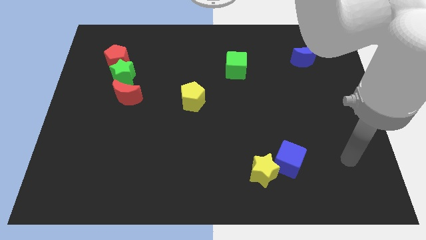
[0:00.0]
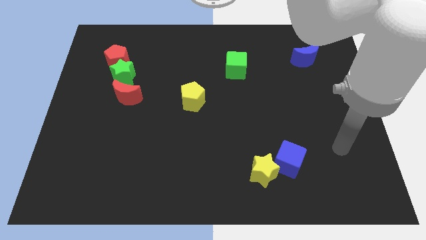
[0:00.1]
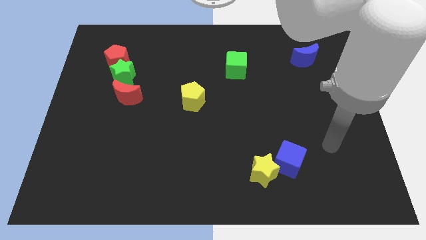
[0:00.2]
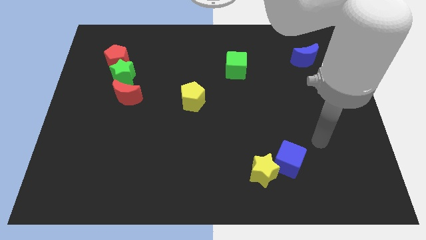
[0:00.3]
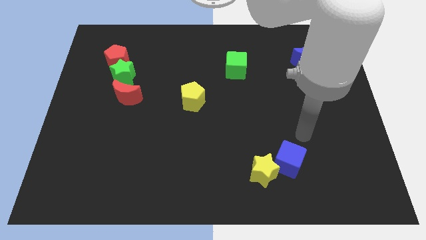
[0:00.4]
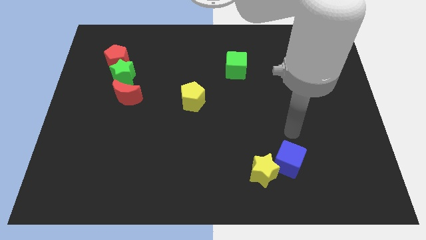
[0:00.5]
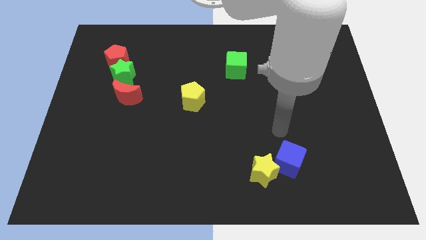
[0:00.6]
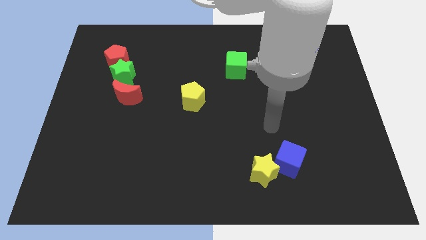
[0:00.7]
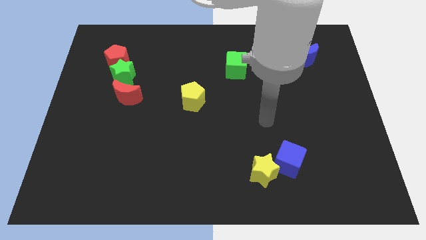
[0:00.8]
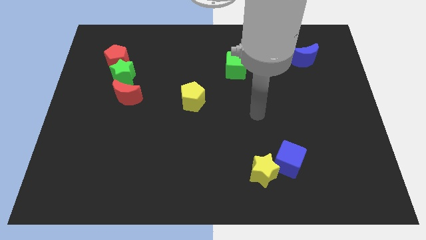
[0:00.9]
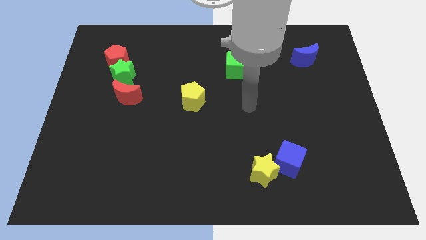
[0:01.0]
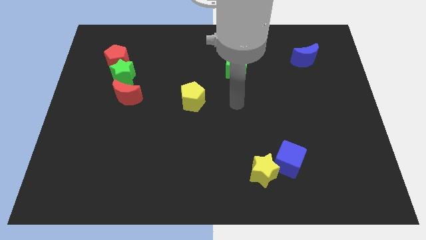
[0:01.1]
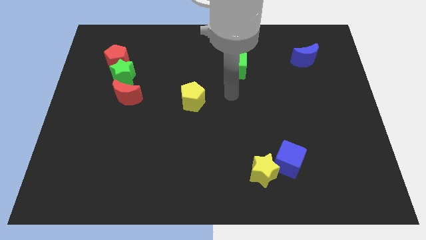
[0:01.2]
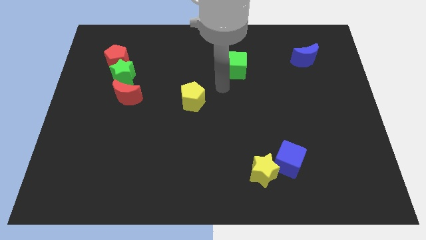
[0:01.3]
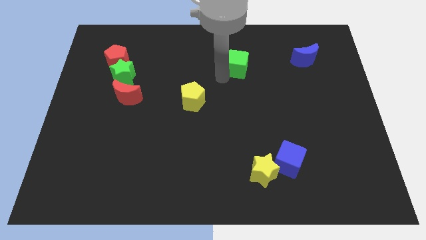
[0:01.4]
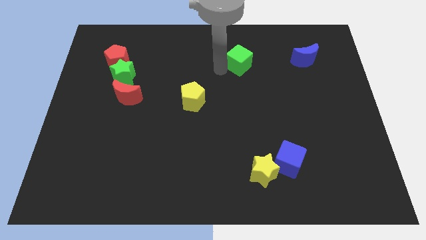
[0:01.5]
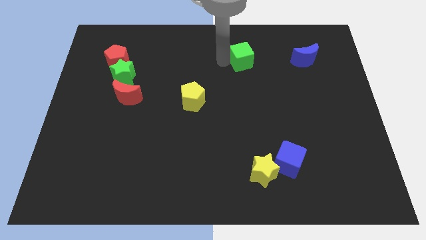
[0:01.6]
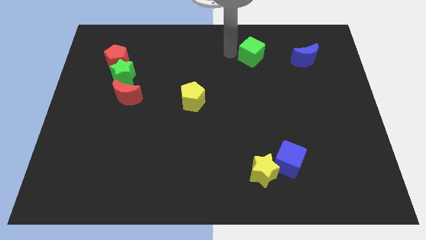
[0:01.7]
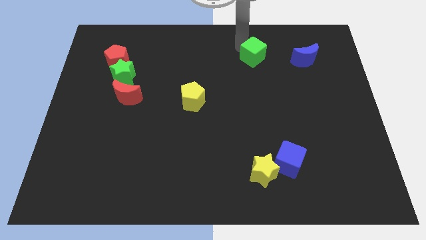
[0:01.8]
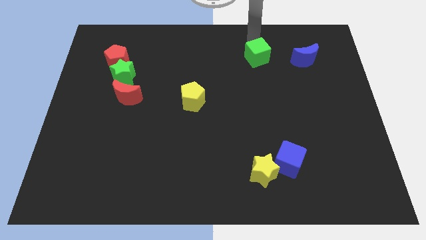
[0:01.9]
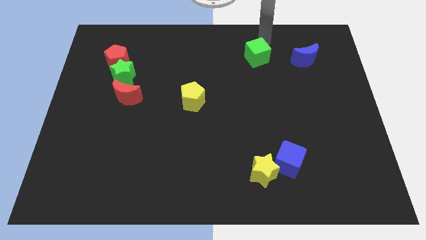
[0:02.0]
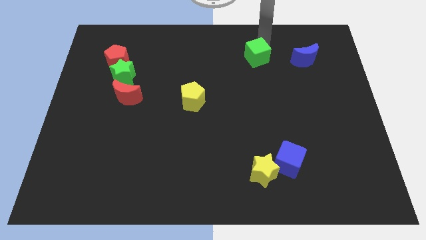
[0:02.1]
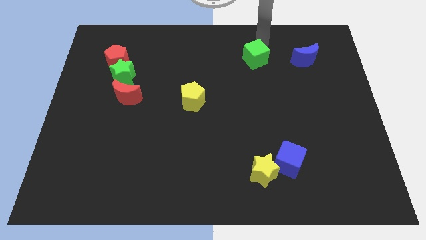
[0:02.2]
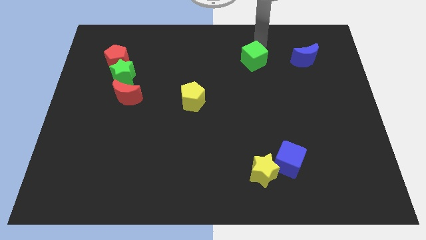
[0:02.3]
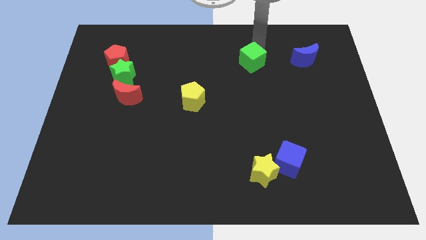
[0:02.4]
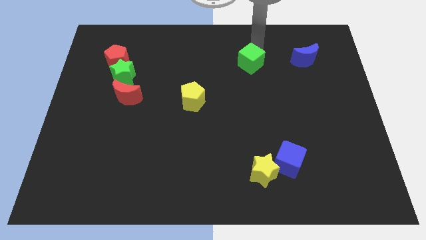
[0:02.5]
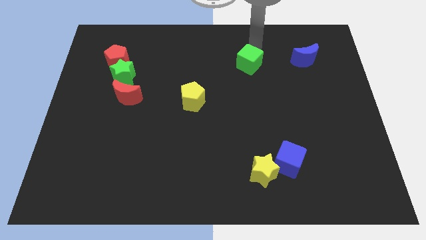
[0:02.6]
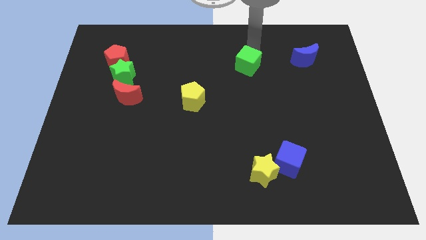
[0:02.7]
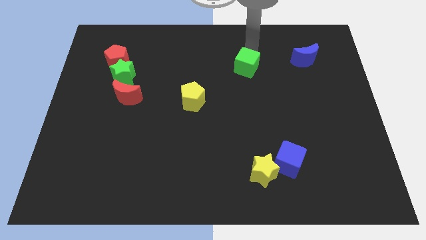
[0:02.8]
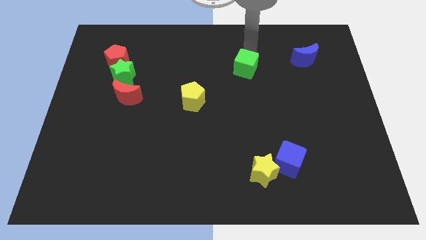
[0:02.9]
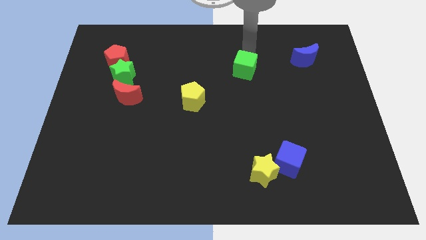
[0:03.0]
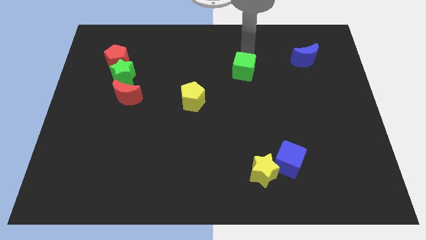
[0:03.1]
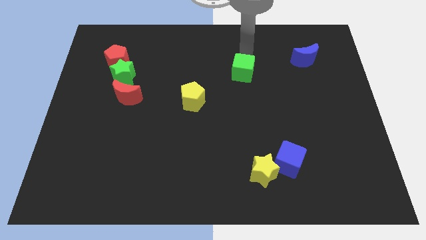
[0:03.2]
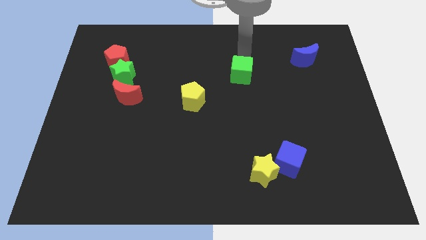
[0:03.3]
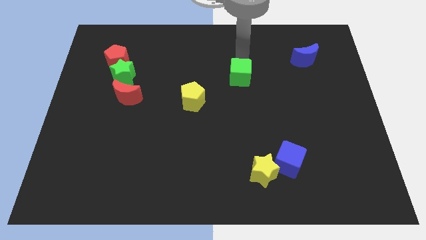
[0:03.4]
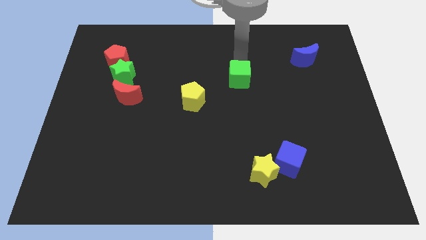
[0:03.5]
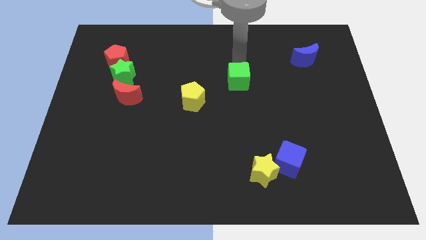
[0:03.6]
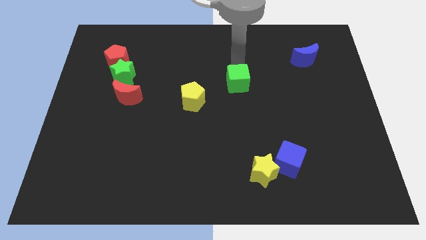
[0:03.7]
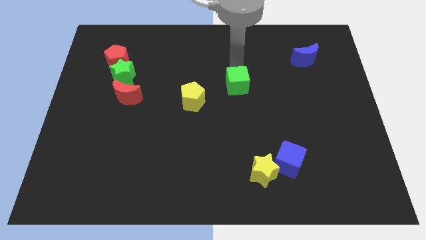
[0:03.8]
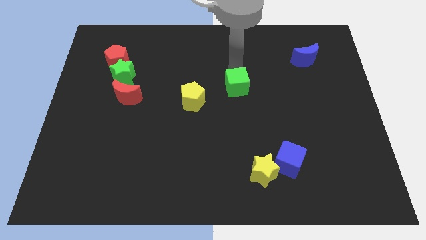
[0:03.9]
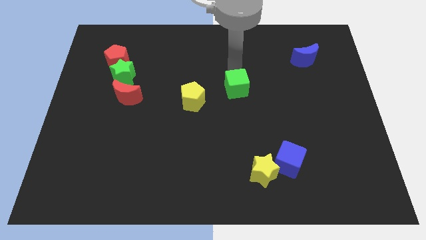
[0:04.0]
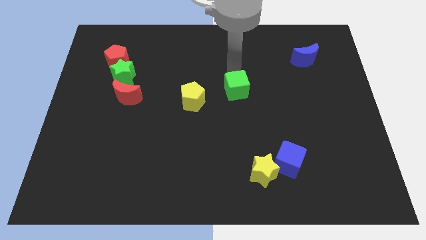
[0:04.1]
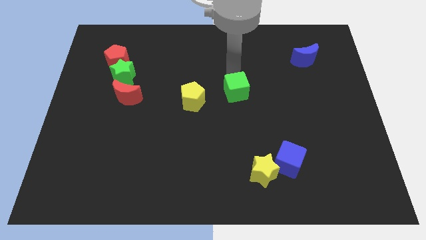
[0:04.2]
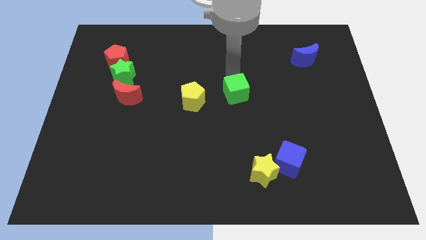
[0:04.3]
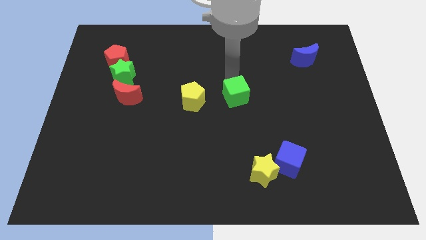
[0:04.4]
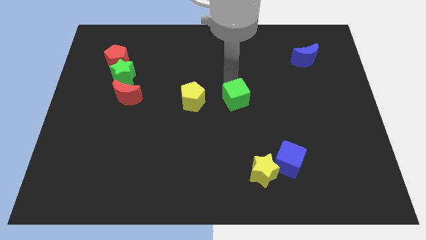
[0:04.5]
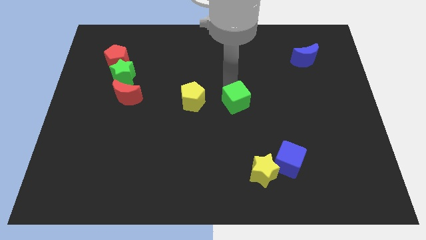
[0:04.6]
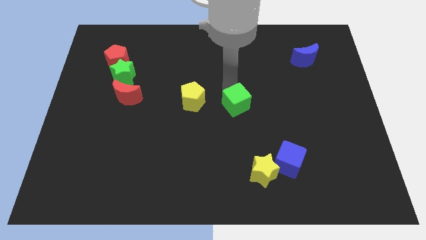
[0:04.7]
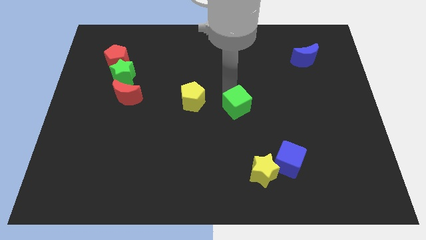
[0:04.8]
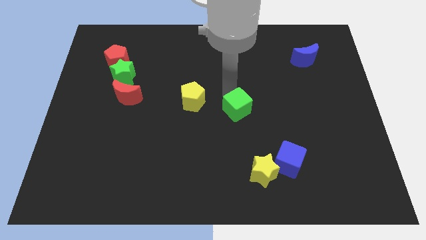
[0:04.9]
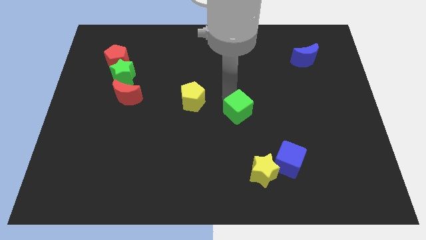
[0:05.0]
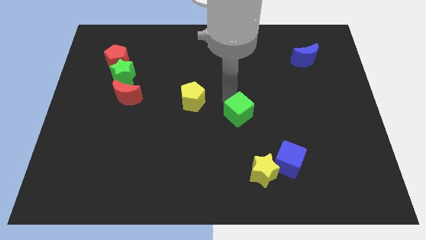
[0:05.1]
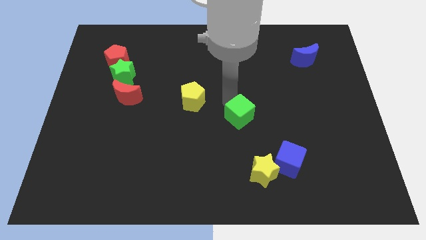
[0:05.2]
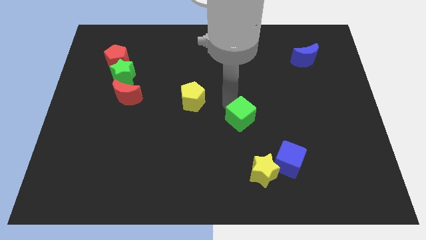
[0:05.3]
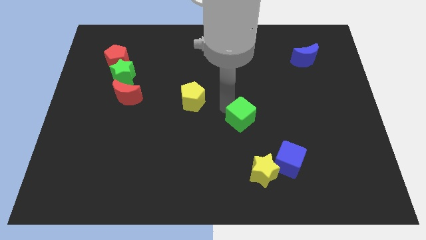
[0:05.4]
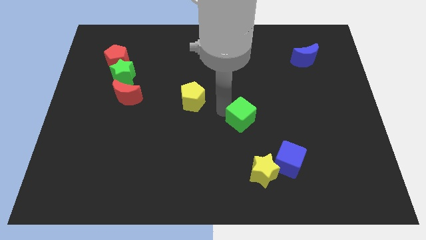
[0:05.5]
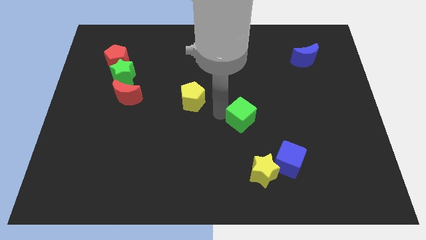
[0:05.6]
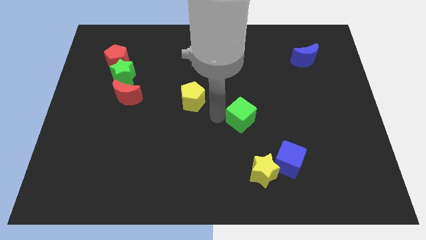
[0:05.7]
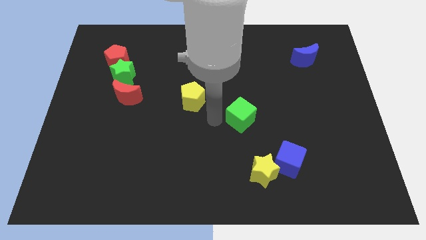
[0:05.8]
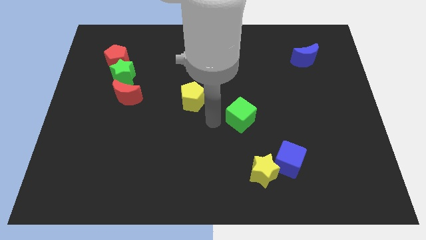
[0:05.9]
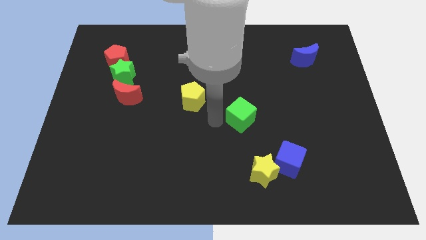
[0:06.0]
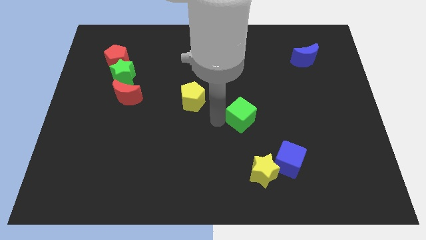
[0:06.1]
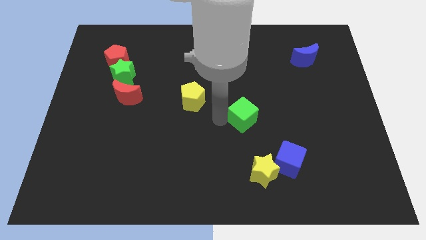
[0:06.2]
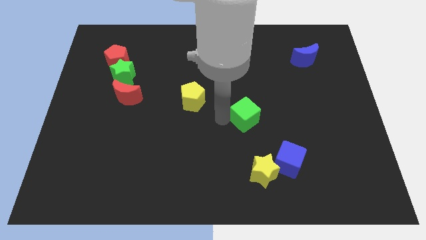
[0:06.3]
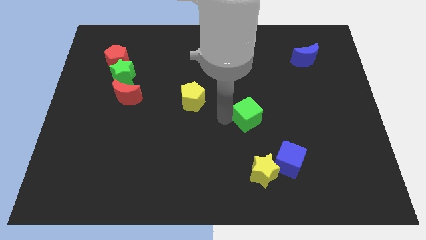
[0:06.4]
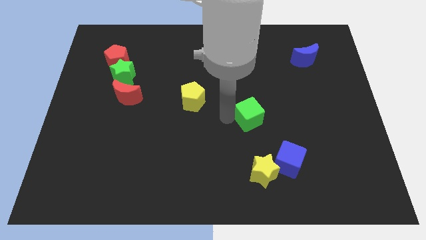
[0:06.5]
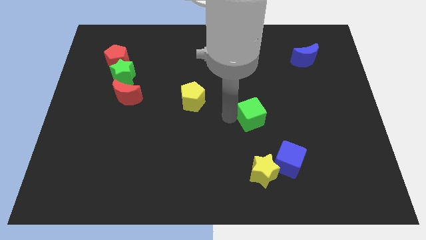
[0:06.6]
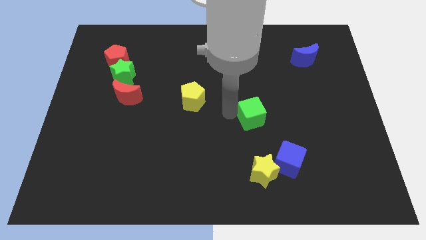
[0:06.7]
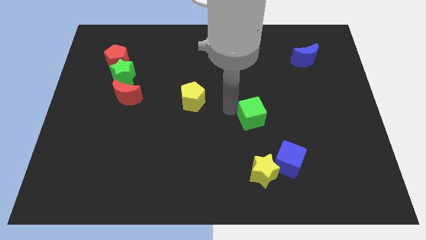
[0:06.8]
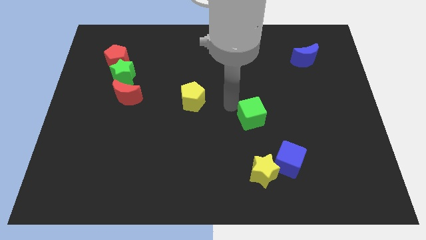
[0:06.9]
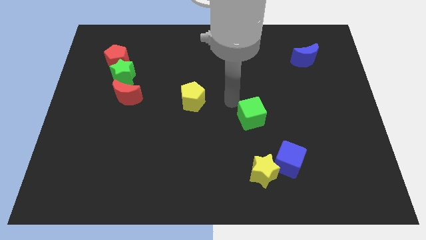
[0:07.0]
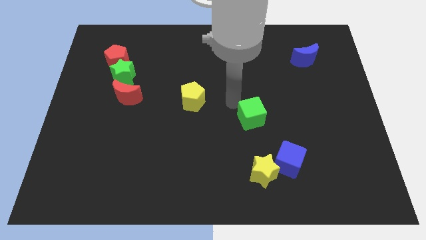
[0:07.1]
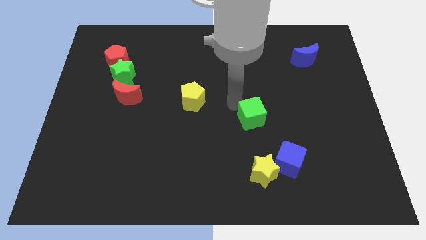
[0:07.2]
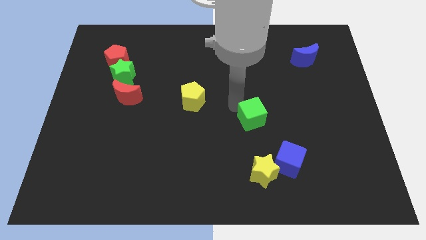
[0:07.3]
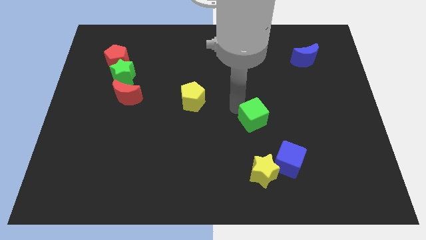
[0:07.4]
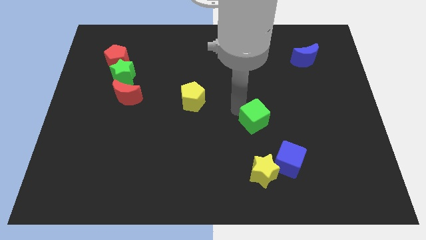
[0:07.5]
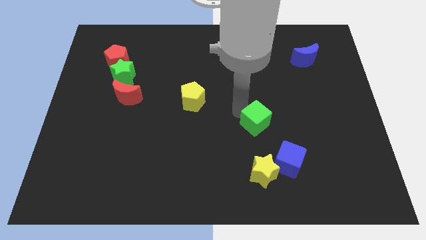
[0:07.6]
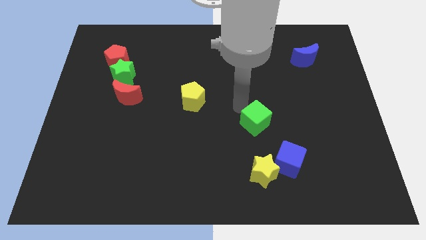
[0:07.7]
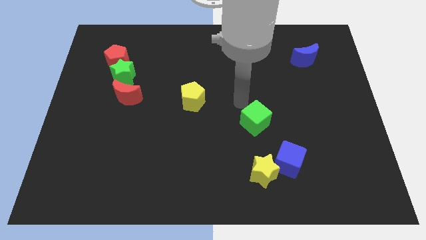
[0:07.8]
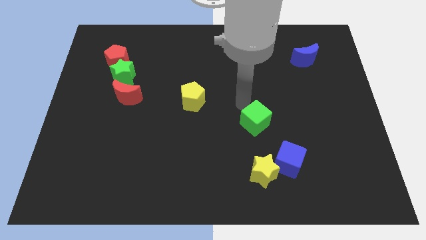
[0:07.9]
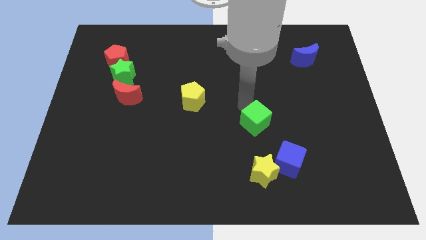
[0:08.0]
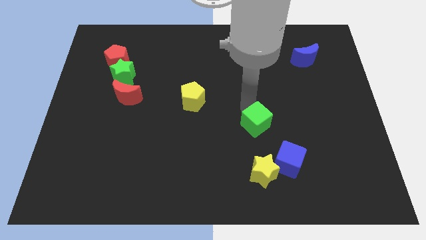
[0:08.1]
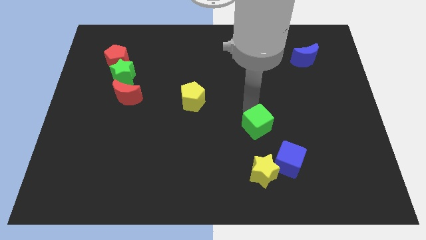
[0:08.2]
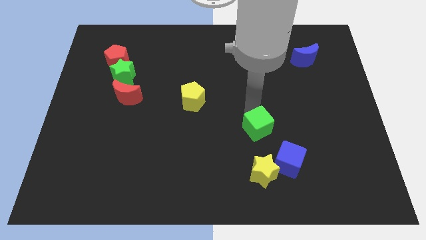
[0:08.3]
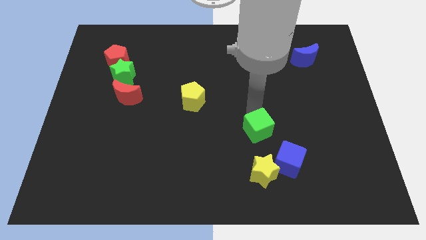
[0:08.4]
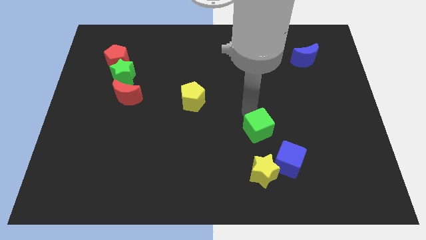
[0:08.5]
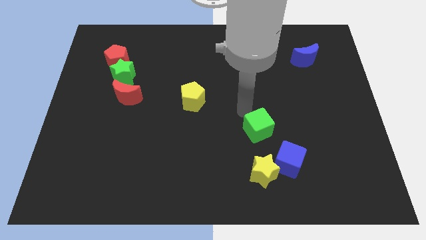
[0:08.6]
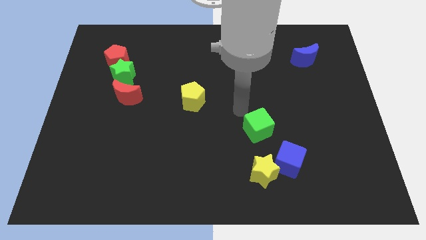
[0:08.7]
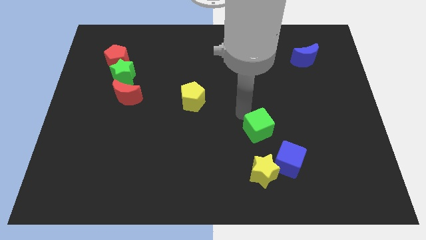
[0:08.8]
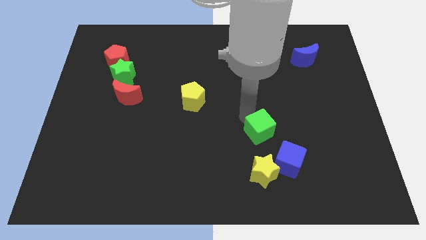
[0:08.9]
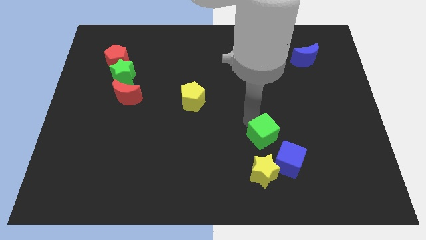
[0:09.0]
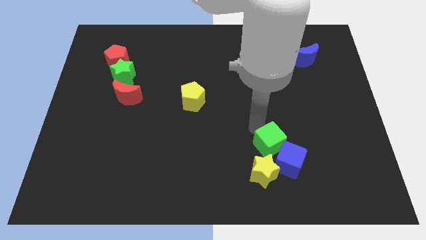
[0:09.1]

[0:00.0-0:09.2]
push the green cube next to the blue cube
